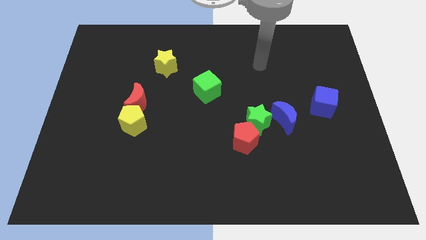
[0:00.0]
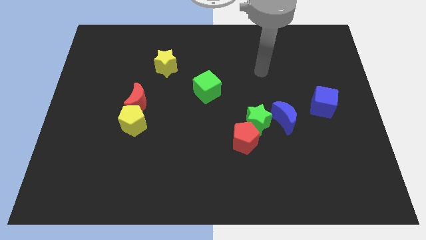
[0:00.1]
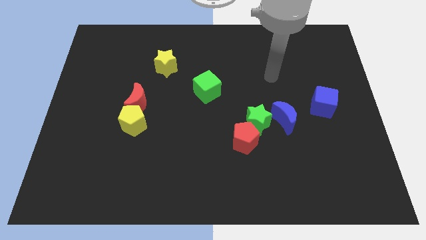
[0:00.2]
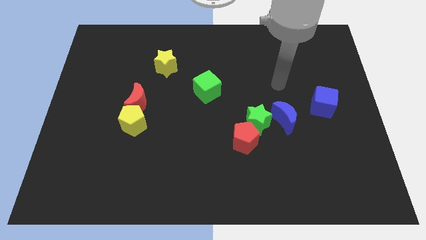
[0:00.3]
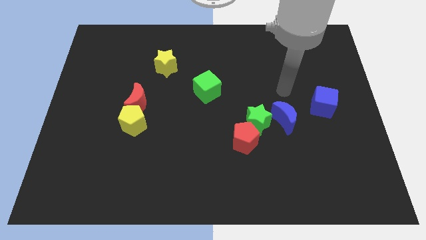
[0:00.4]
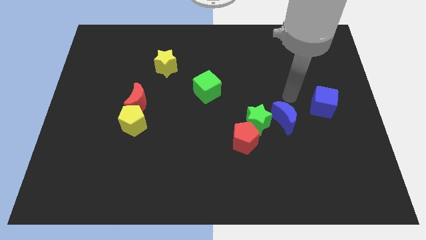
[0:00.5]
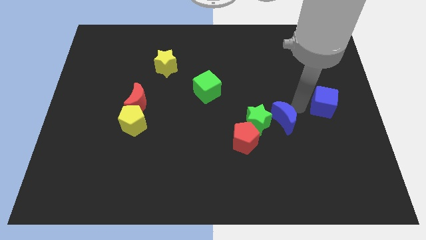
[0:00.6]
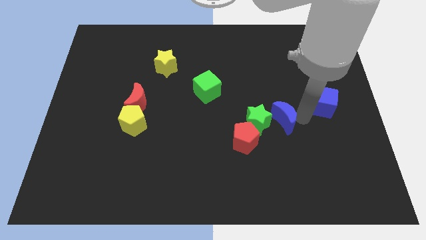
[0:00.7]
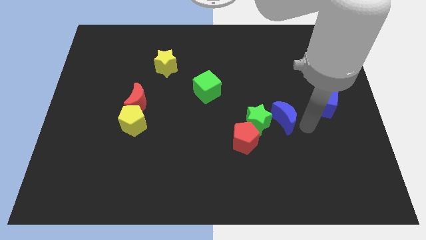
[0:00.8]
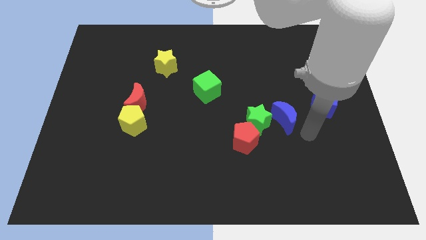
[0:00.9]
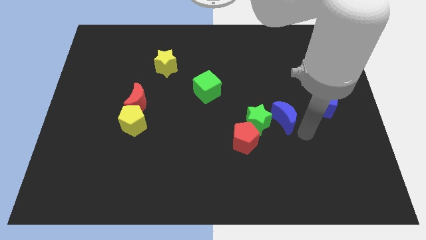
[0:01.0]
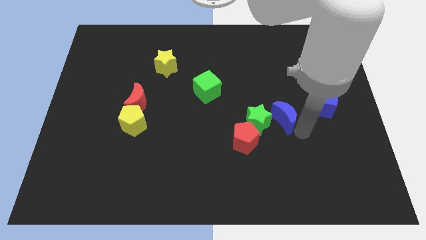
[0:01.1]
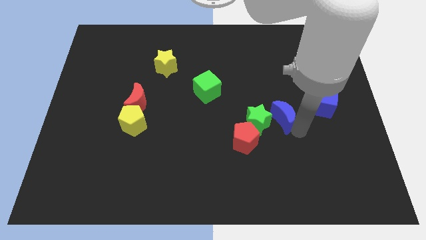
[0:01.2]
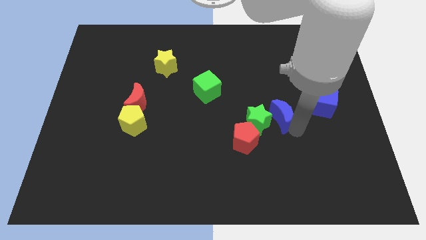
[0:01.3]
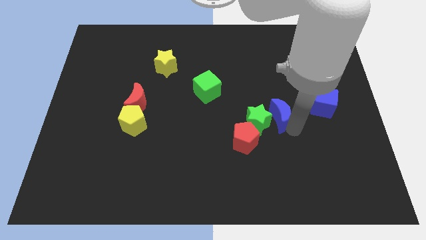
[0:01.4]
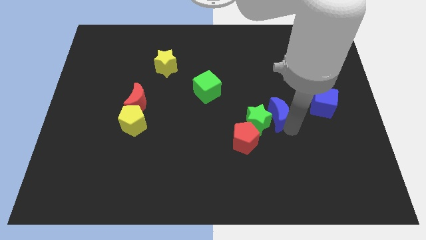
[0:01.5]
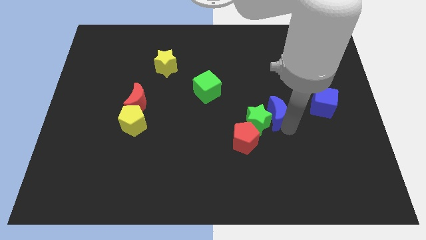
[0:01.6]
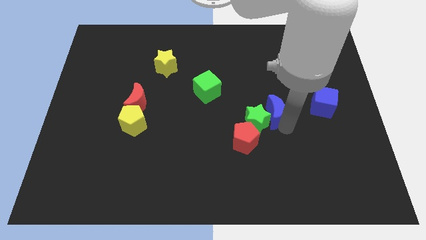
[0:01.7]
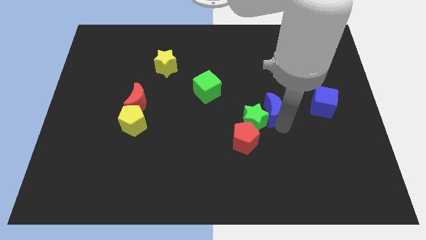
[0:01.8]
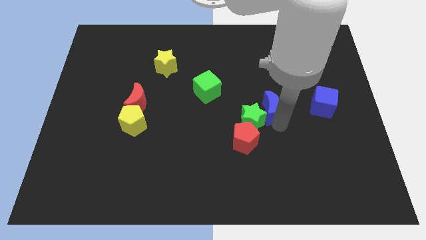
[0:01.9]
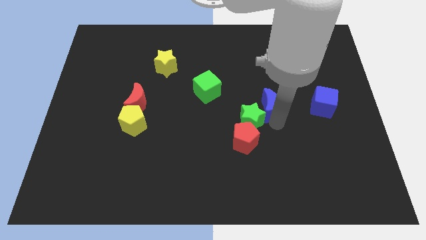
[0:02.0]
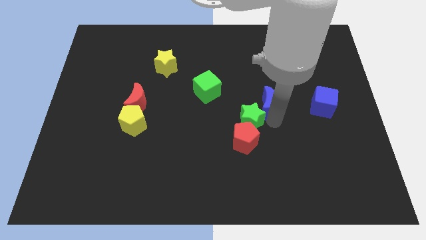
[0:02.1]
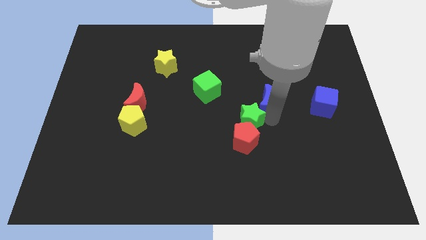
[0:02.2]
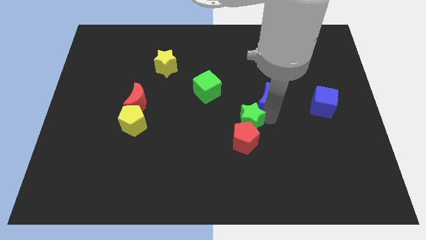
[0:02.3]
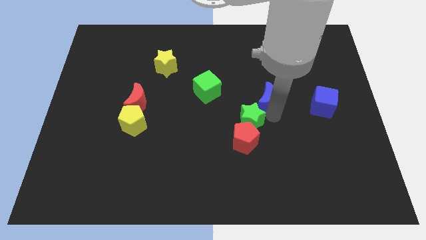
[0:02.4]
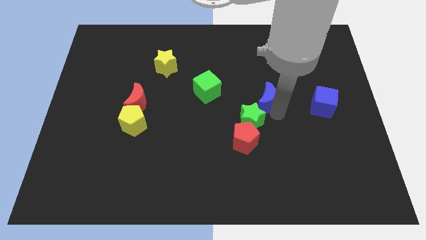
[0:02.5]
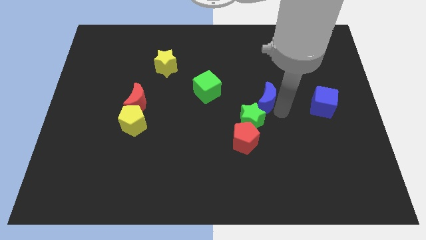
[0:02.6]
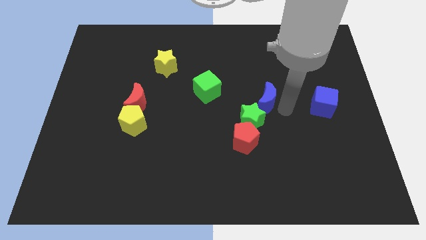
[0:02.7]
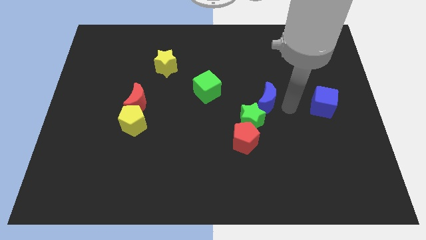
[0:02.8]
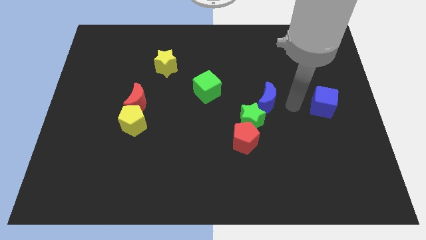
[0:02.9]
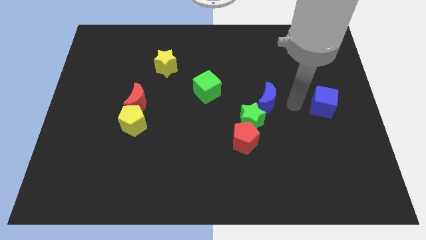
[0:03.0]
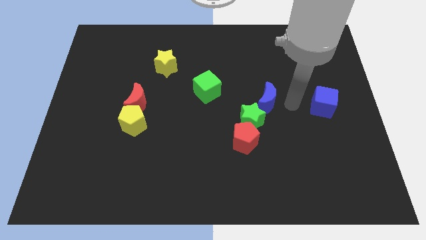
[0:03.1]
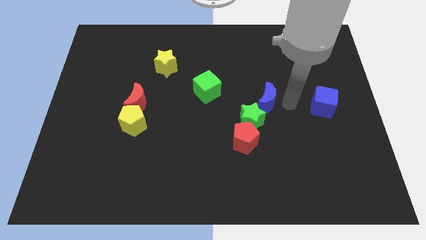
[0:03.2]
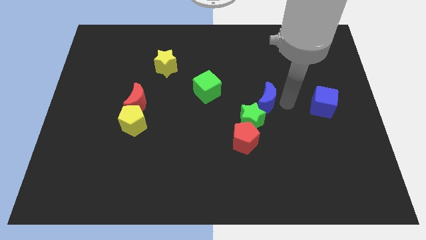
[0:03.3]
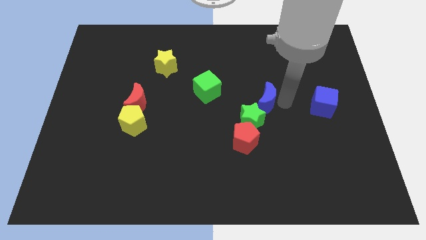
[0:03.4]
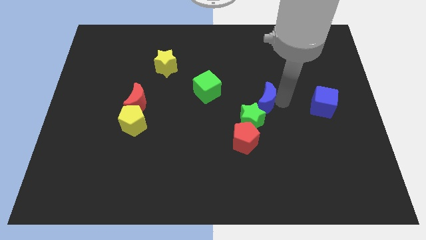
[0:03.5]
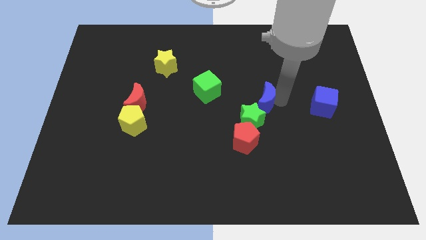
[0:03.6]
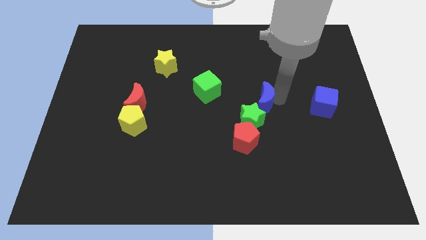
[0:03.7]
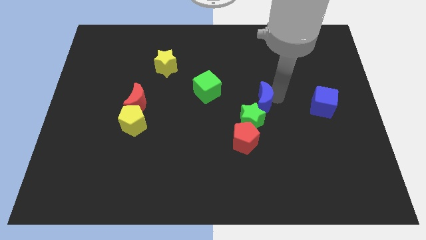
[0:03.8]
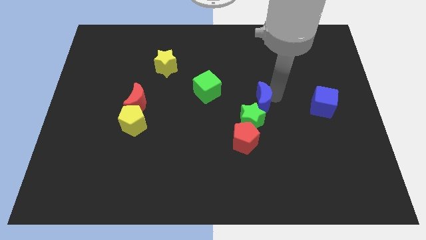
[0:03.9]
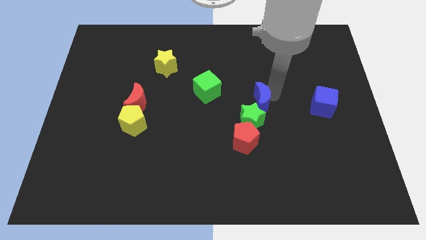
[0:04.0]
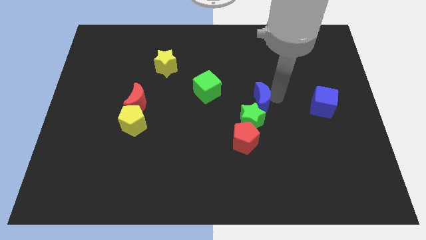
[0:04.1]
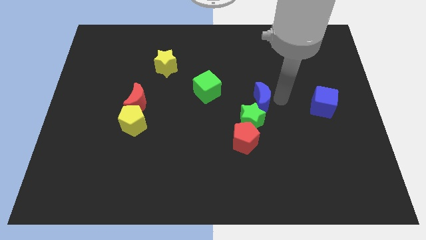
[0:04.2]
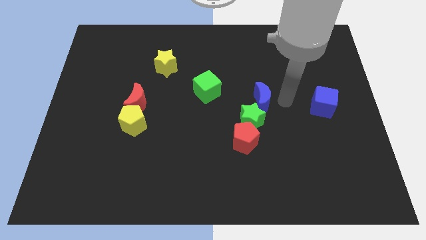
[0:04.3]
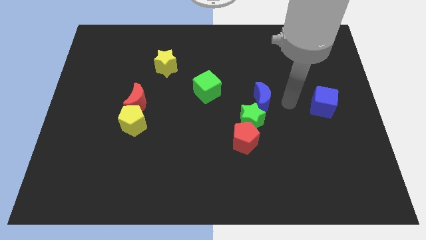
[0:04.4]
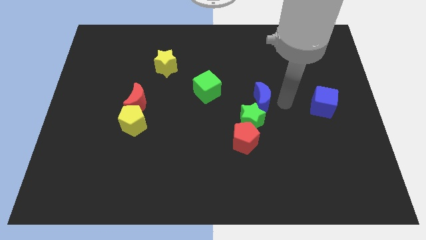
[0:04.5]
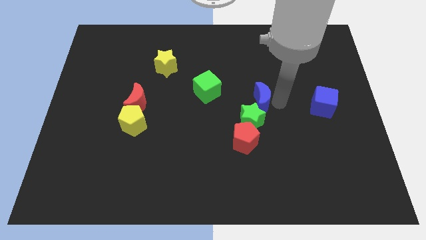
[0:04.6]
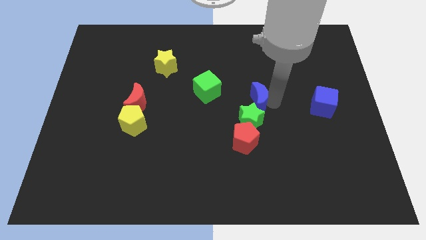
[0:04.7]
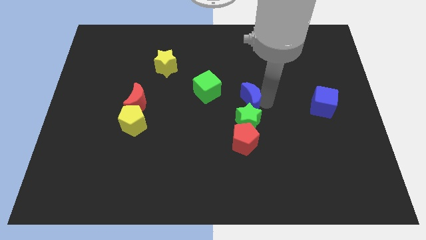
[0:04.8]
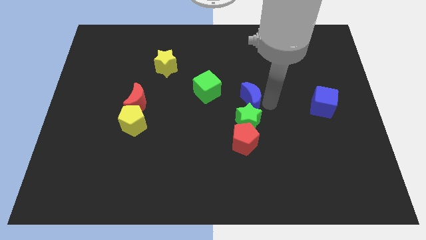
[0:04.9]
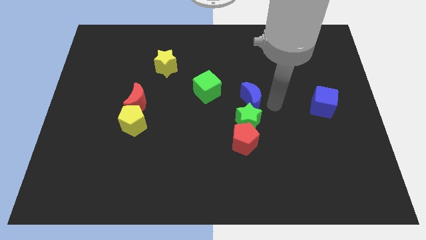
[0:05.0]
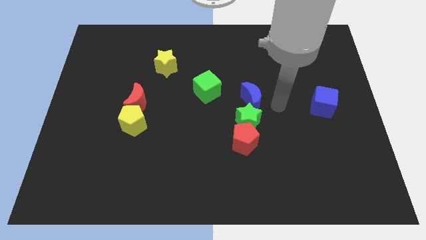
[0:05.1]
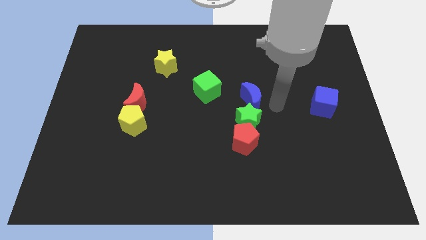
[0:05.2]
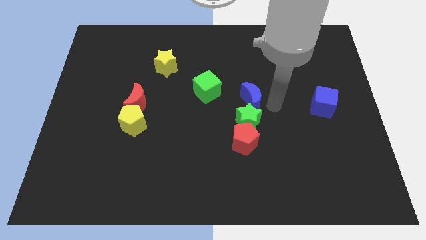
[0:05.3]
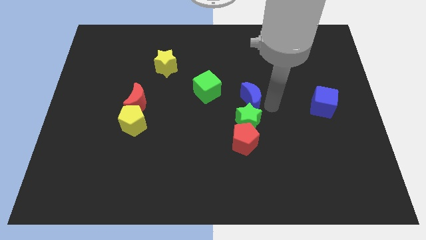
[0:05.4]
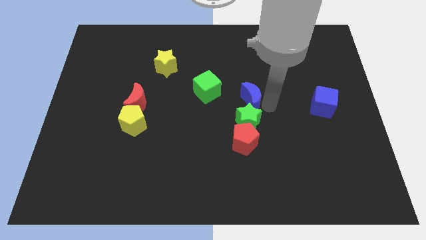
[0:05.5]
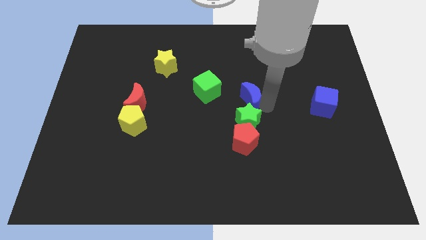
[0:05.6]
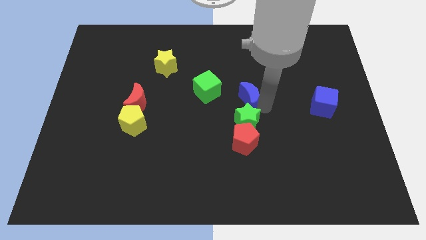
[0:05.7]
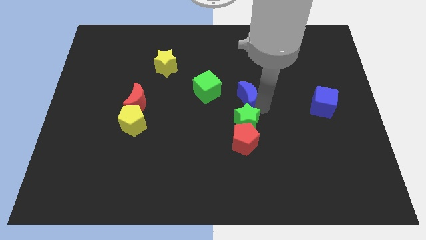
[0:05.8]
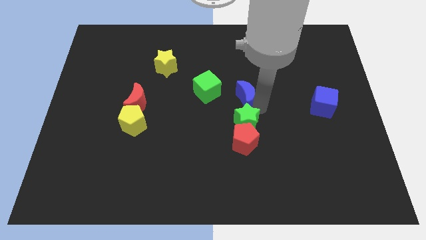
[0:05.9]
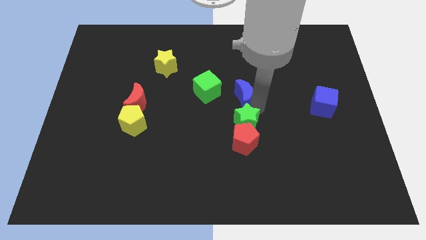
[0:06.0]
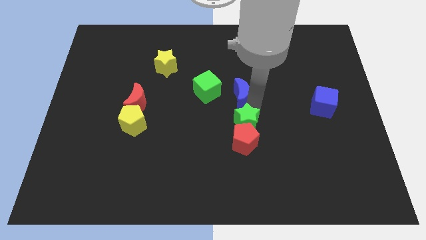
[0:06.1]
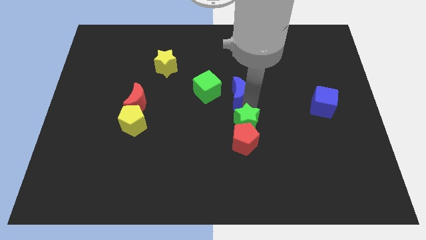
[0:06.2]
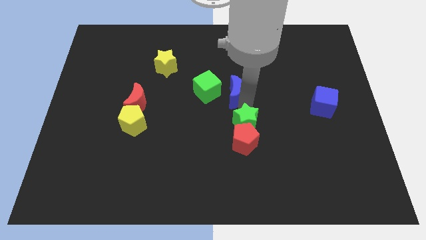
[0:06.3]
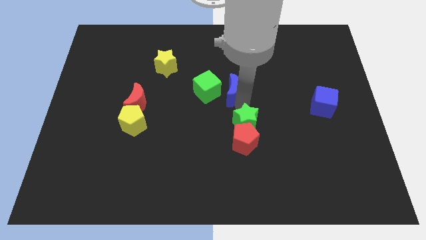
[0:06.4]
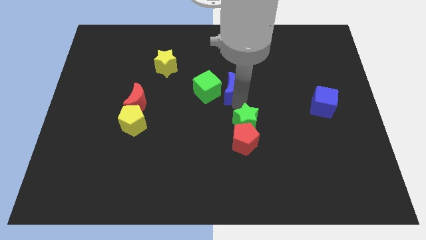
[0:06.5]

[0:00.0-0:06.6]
slide the blue moon to the green cube

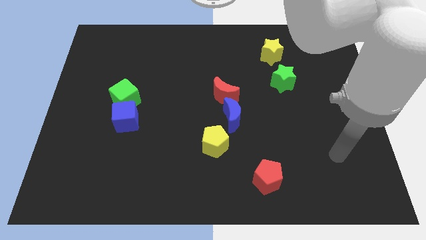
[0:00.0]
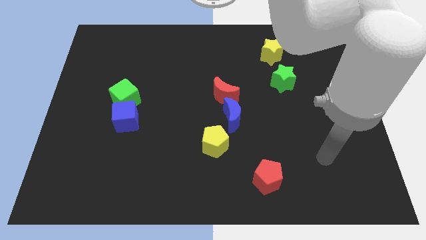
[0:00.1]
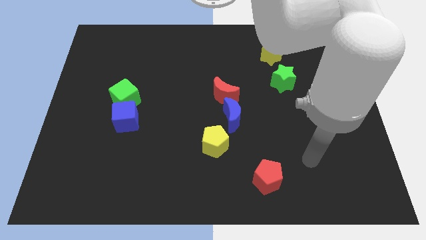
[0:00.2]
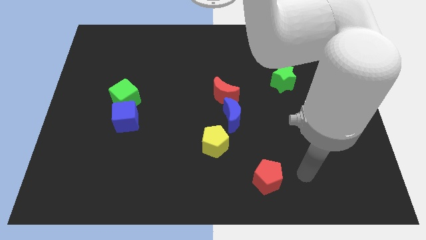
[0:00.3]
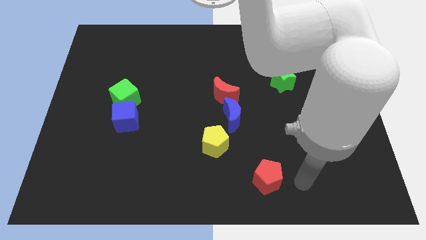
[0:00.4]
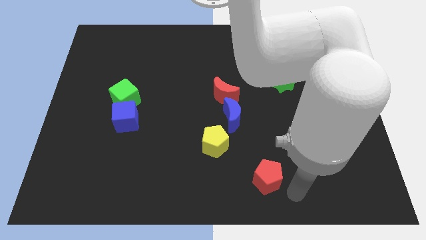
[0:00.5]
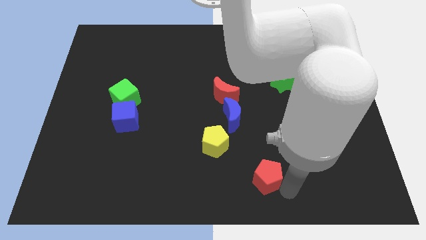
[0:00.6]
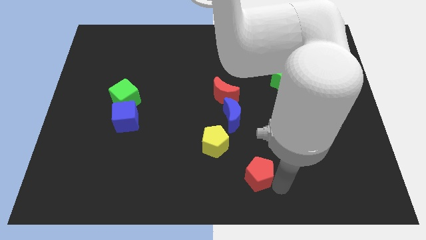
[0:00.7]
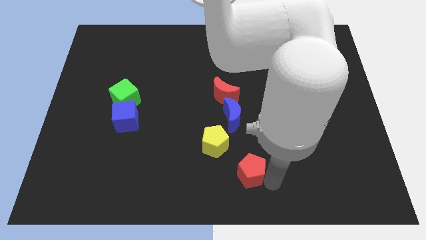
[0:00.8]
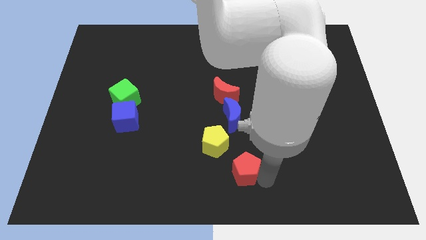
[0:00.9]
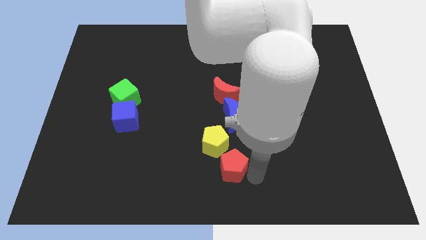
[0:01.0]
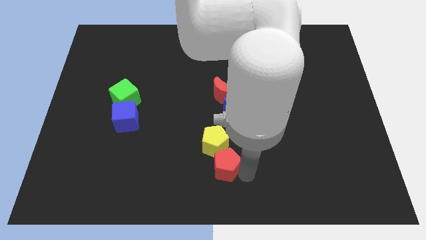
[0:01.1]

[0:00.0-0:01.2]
put the red pentagon to the yellow pentagon
